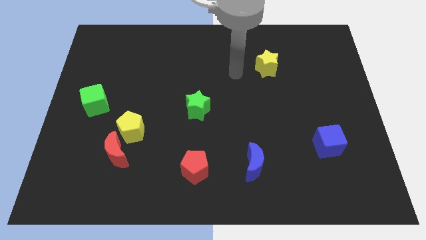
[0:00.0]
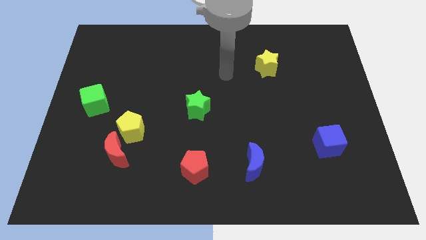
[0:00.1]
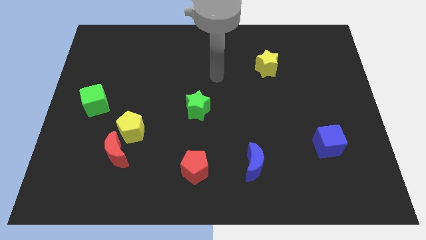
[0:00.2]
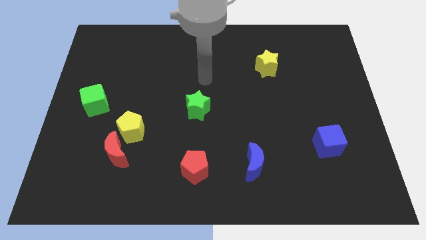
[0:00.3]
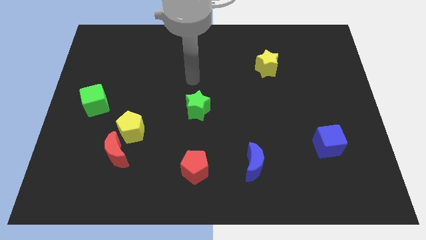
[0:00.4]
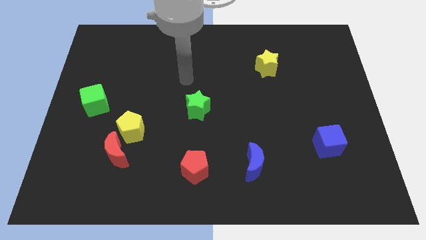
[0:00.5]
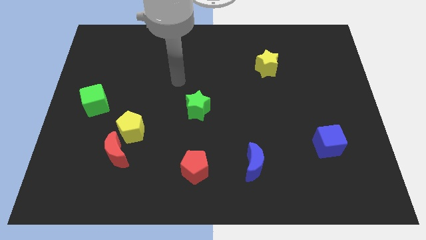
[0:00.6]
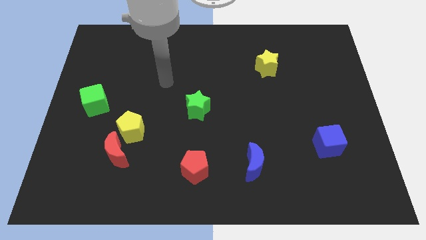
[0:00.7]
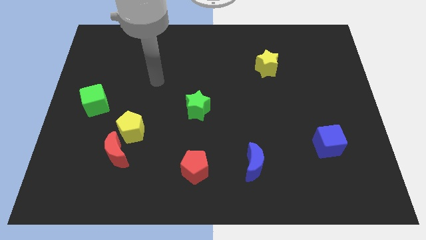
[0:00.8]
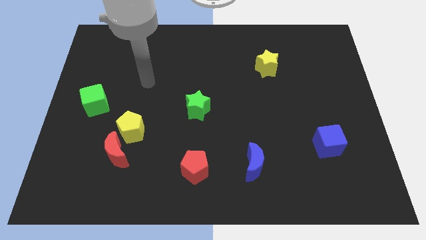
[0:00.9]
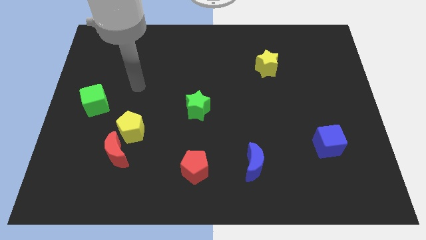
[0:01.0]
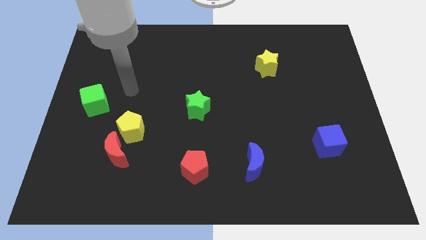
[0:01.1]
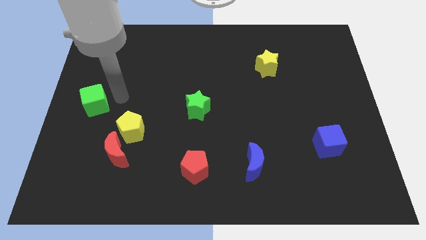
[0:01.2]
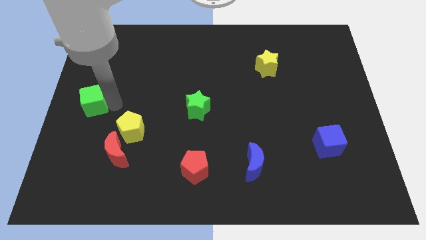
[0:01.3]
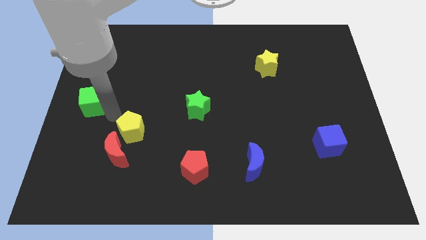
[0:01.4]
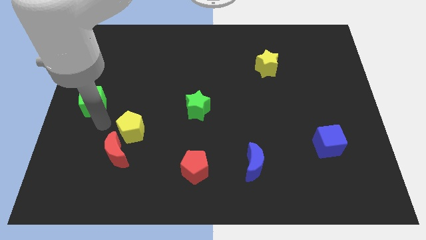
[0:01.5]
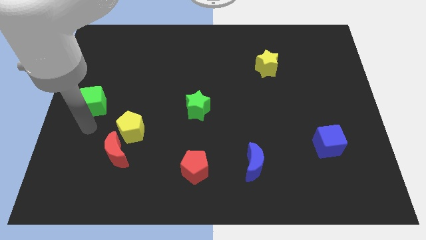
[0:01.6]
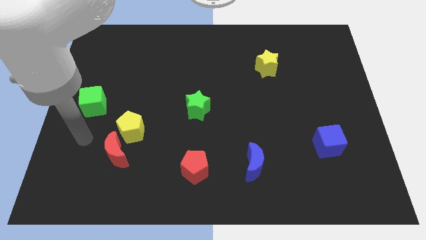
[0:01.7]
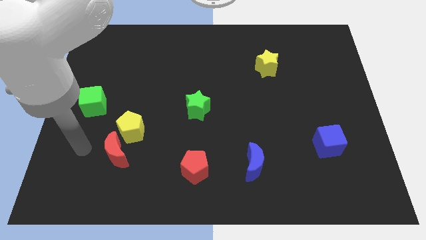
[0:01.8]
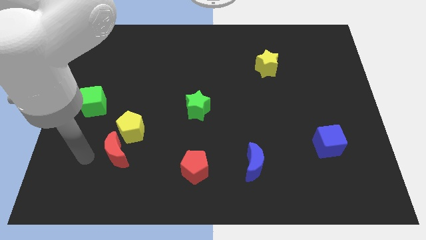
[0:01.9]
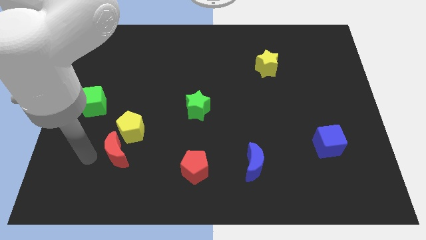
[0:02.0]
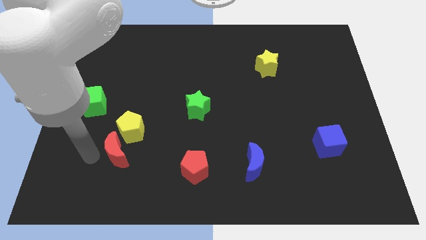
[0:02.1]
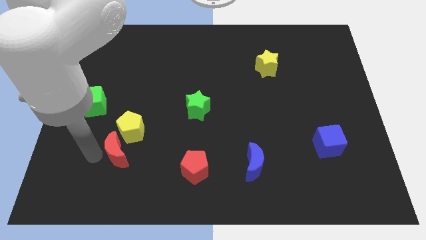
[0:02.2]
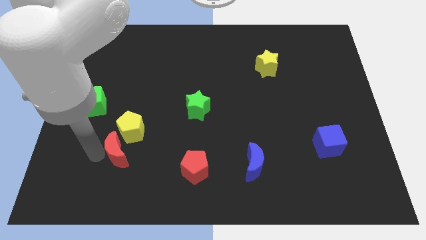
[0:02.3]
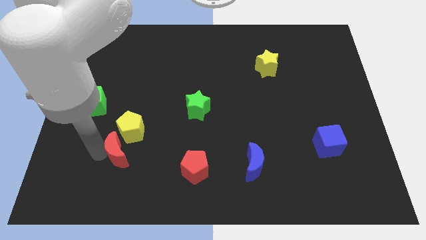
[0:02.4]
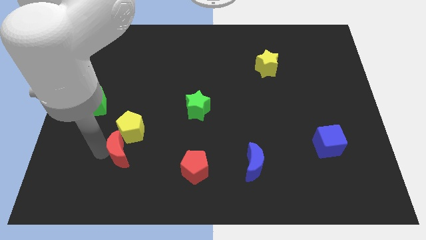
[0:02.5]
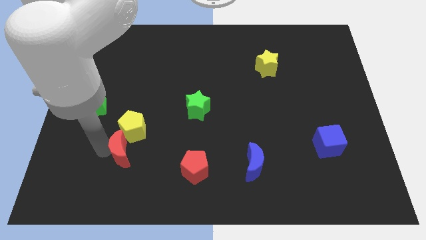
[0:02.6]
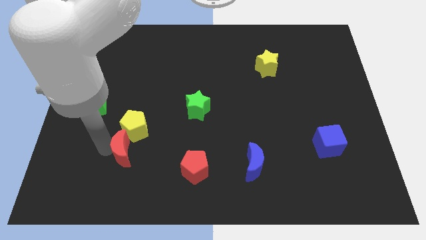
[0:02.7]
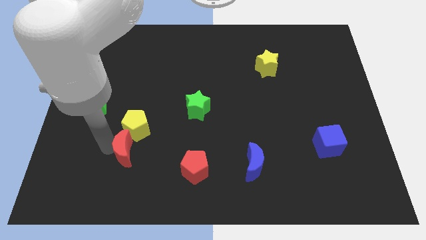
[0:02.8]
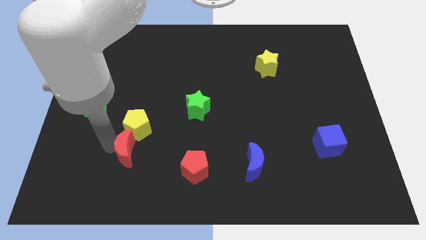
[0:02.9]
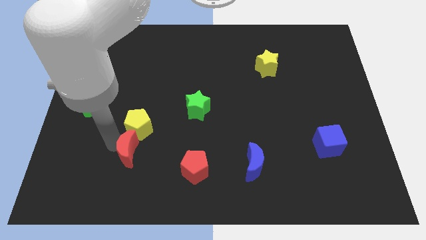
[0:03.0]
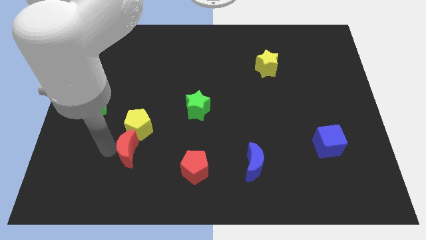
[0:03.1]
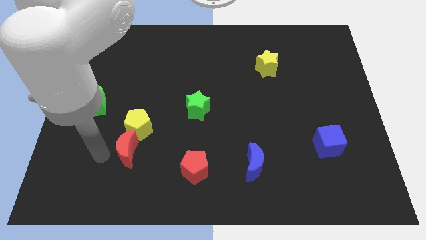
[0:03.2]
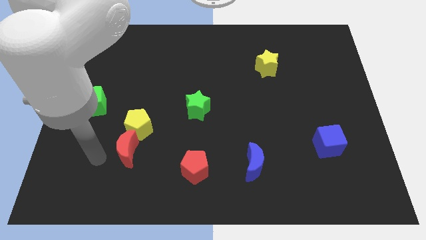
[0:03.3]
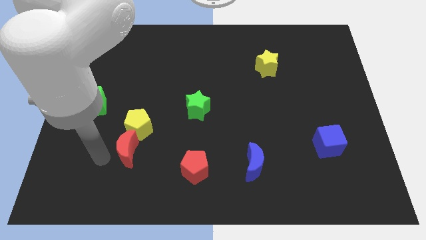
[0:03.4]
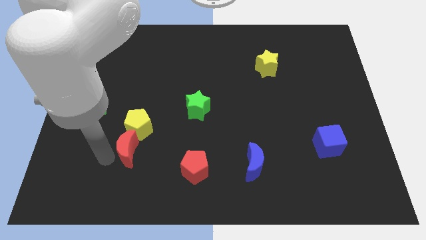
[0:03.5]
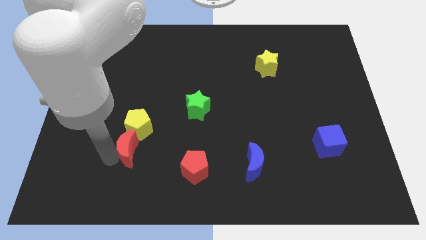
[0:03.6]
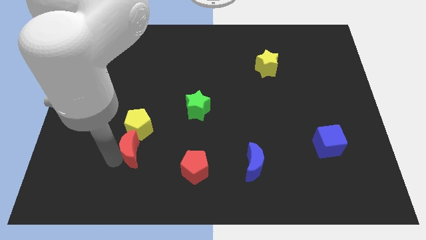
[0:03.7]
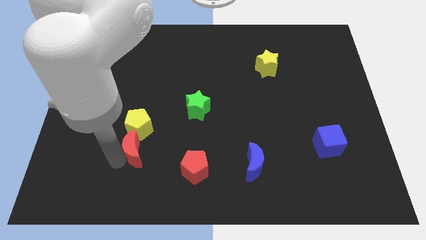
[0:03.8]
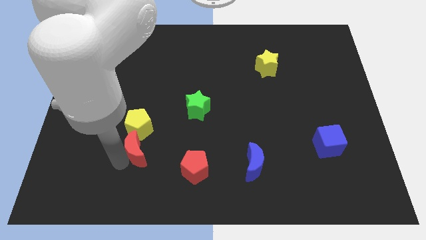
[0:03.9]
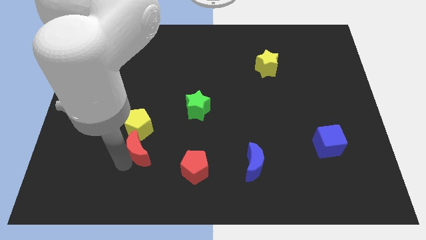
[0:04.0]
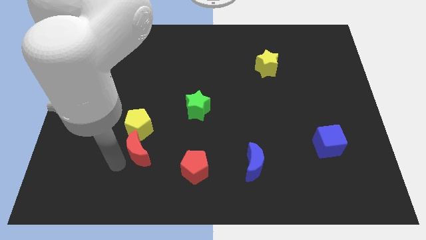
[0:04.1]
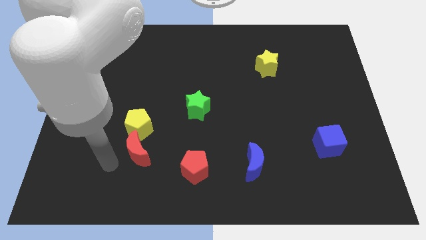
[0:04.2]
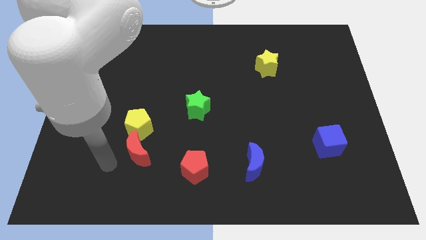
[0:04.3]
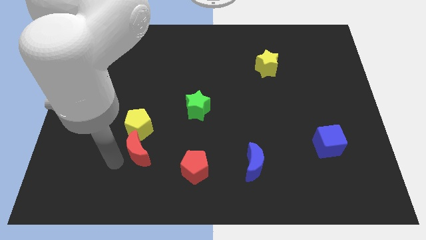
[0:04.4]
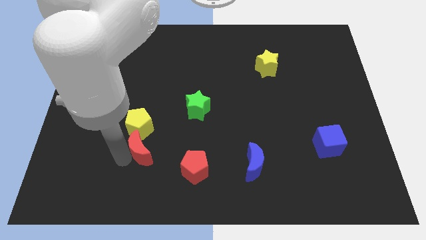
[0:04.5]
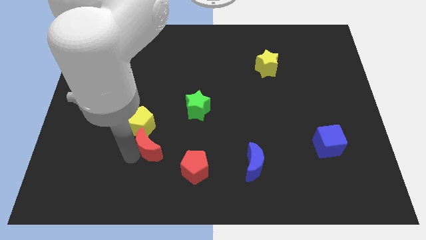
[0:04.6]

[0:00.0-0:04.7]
slightly push the red moon right

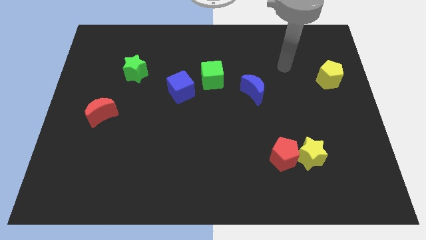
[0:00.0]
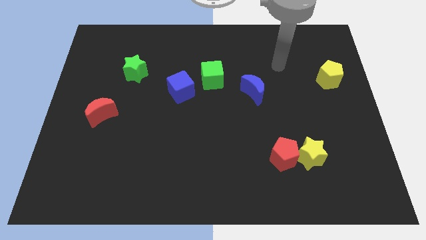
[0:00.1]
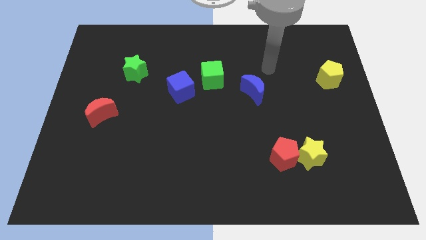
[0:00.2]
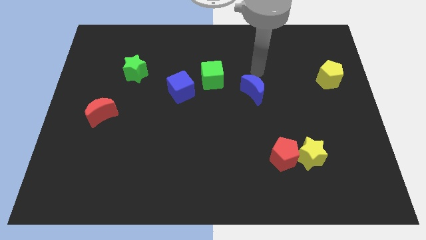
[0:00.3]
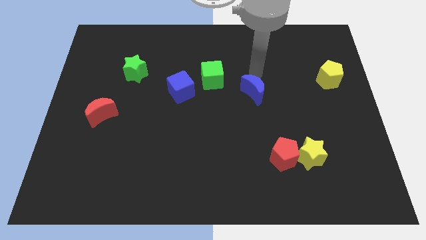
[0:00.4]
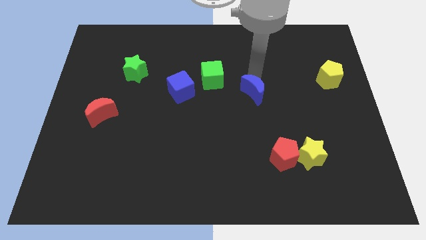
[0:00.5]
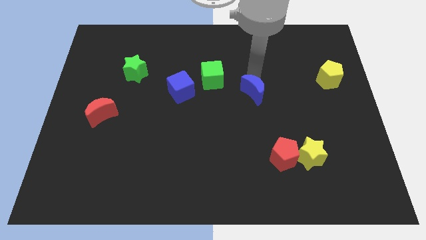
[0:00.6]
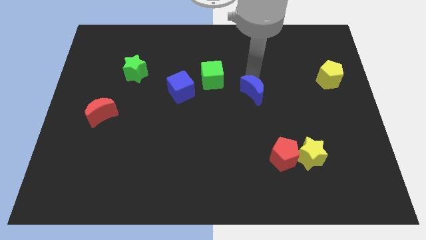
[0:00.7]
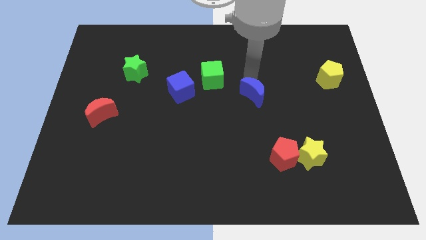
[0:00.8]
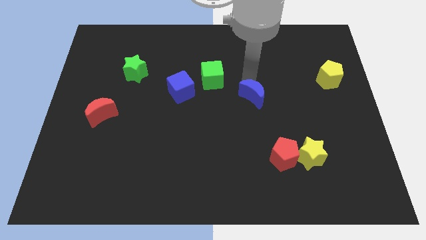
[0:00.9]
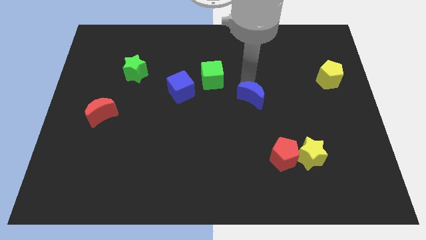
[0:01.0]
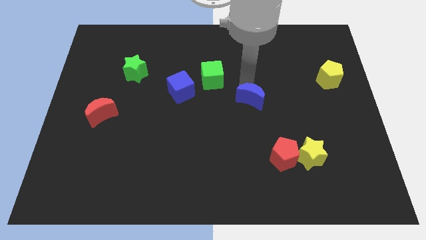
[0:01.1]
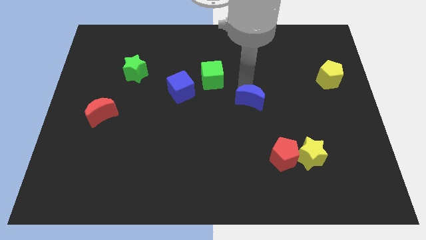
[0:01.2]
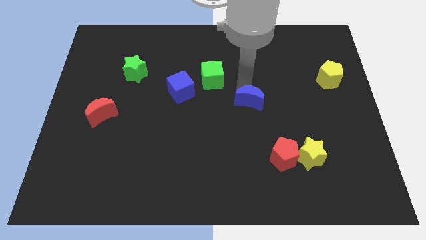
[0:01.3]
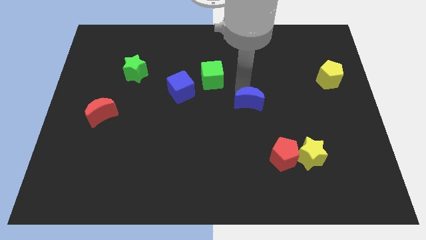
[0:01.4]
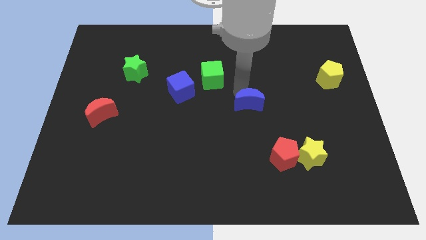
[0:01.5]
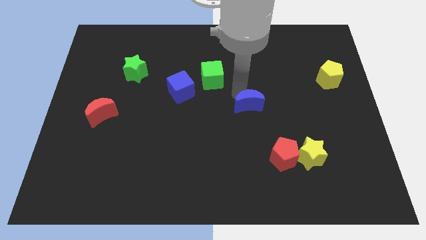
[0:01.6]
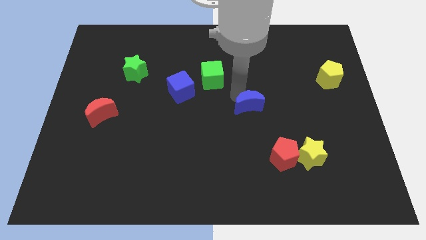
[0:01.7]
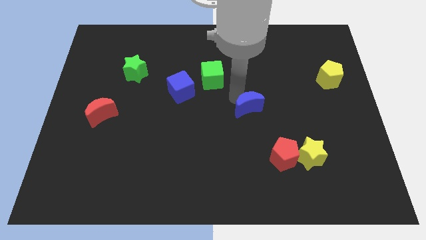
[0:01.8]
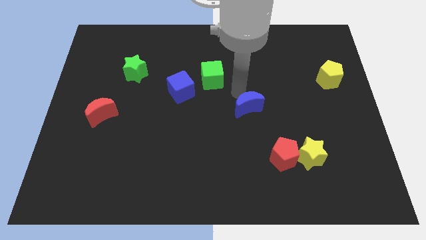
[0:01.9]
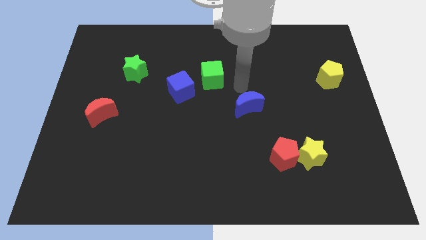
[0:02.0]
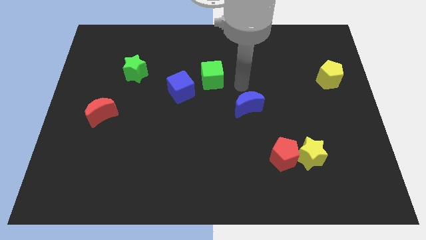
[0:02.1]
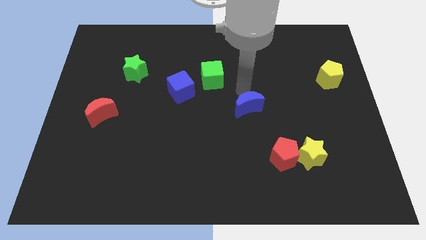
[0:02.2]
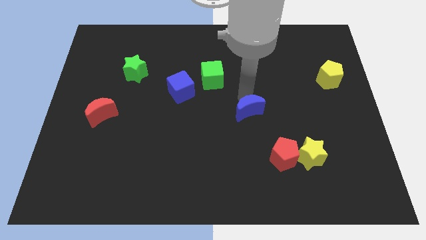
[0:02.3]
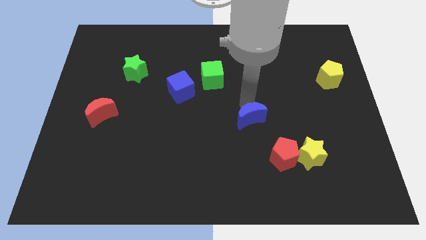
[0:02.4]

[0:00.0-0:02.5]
slightly push the blue moon downwards

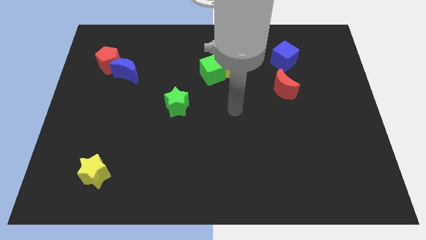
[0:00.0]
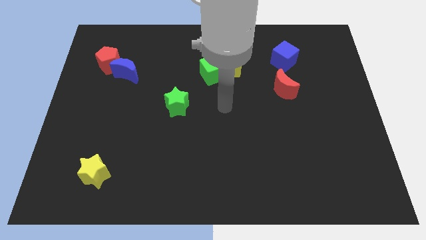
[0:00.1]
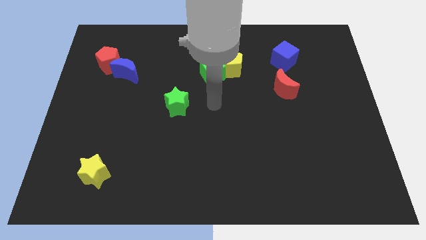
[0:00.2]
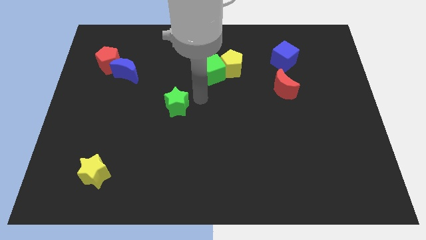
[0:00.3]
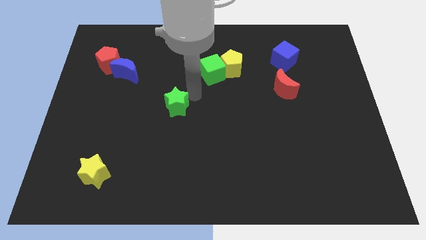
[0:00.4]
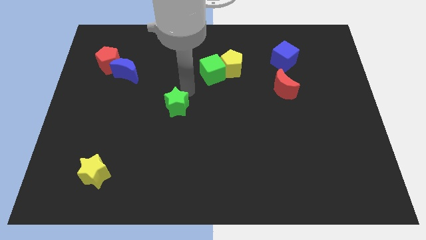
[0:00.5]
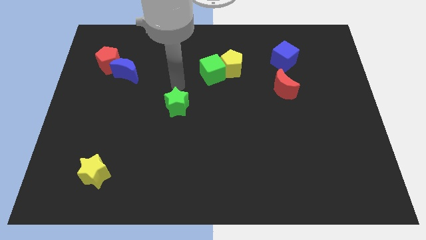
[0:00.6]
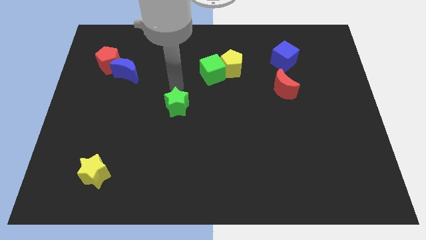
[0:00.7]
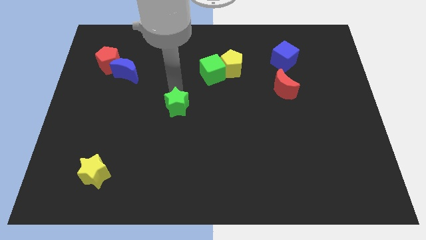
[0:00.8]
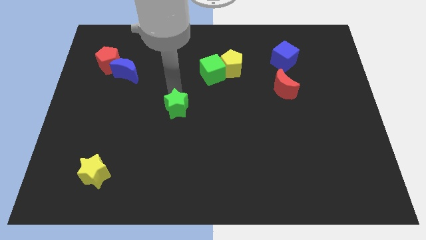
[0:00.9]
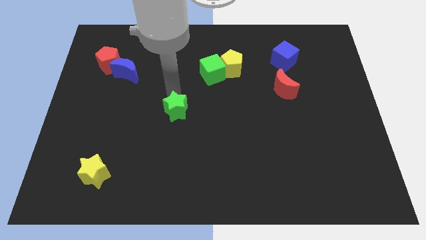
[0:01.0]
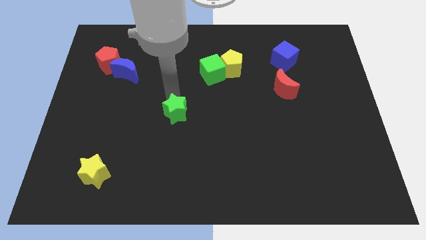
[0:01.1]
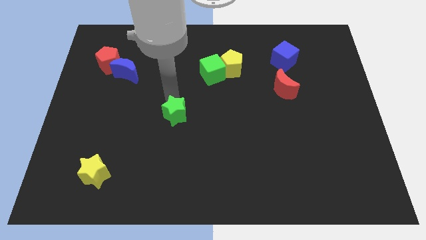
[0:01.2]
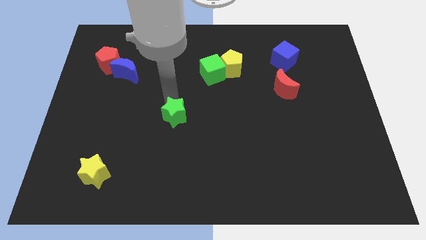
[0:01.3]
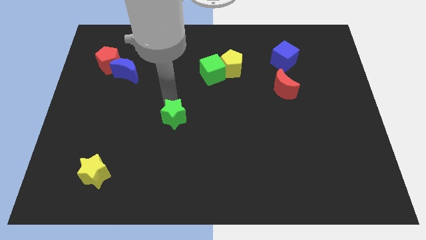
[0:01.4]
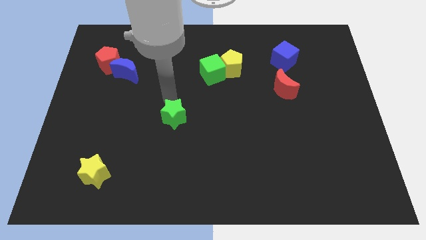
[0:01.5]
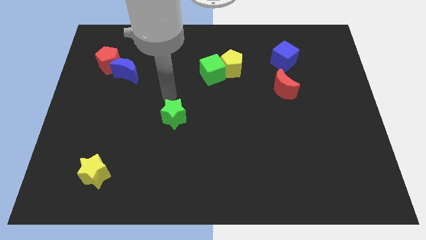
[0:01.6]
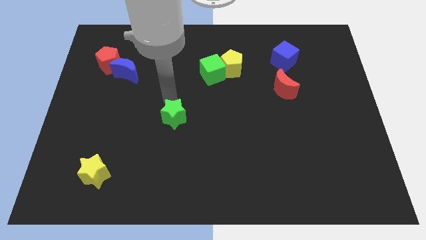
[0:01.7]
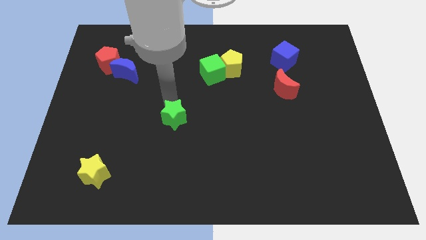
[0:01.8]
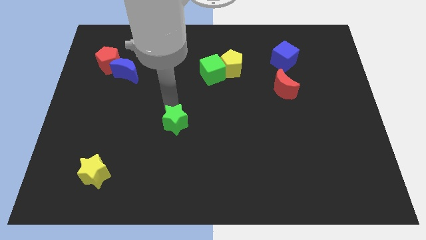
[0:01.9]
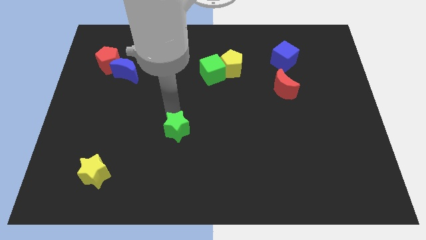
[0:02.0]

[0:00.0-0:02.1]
slide the green star down a bit
